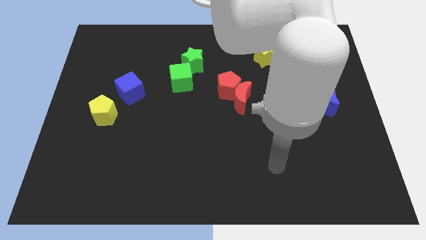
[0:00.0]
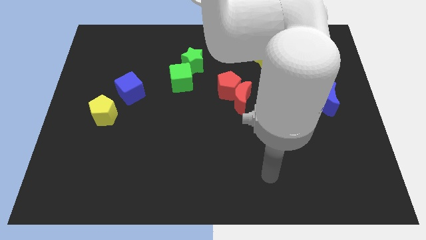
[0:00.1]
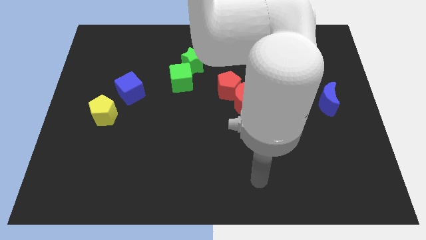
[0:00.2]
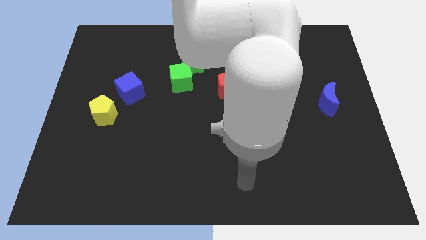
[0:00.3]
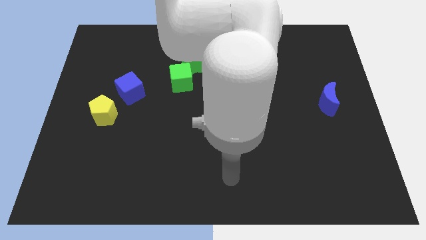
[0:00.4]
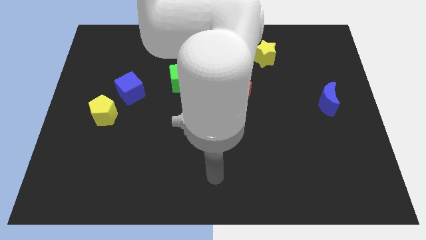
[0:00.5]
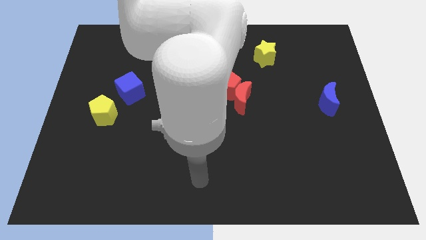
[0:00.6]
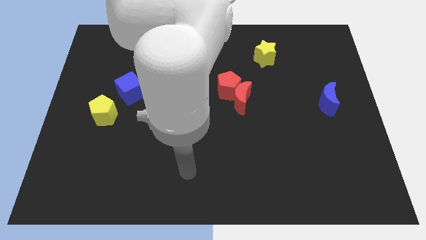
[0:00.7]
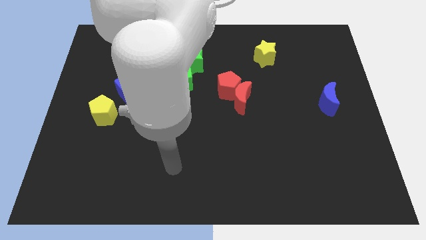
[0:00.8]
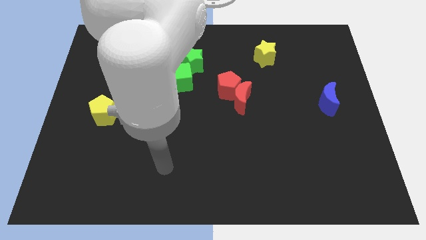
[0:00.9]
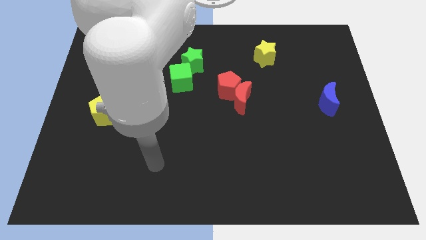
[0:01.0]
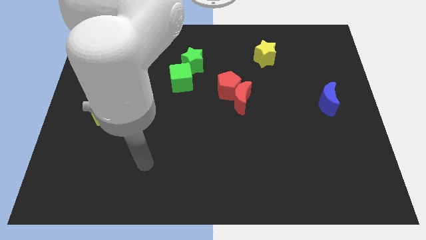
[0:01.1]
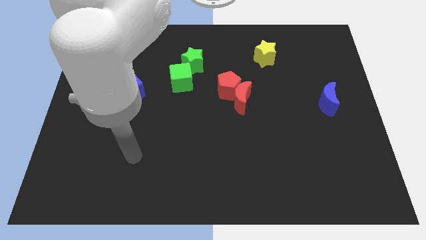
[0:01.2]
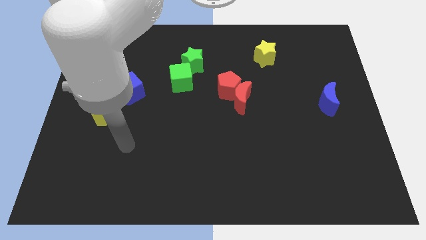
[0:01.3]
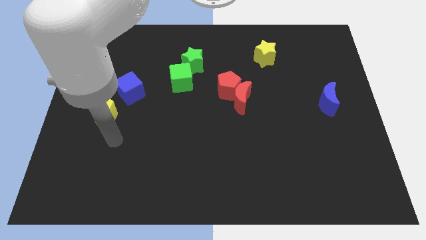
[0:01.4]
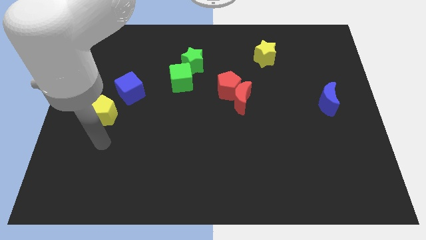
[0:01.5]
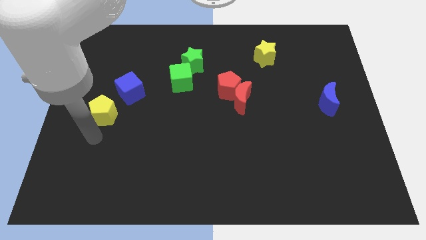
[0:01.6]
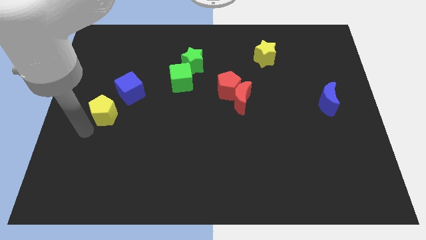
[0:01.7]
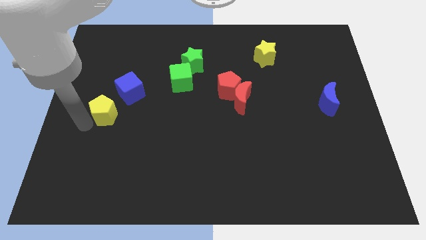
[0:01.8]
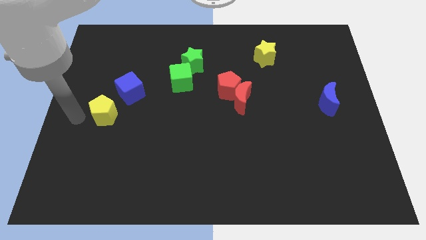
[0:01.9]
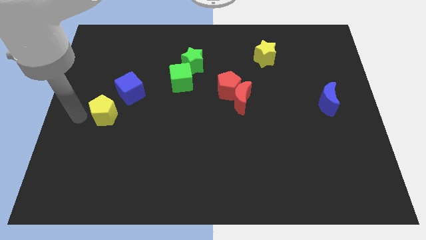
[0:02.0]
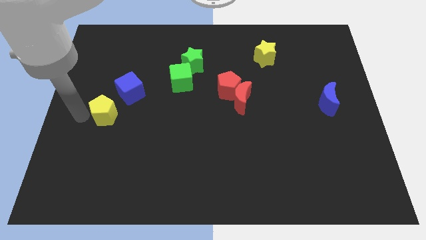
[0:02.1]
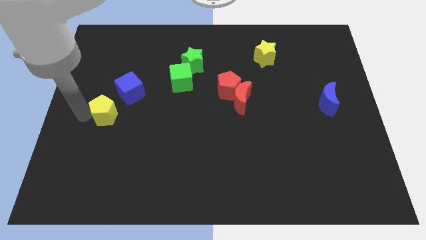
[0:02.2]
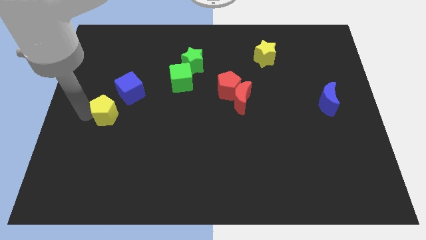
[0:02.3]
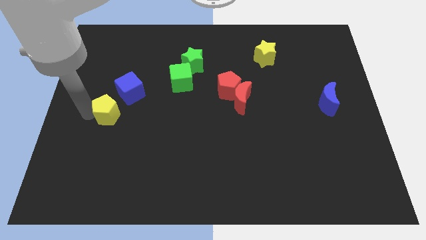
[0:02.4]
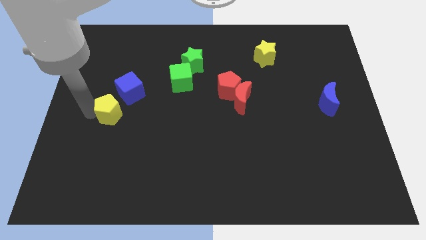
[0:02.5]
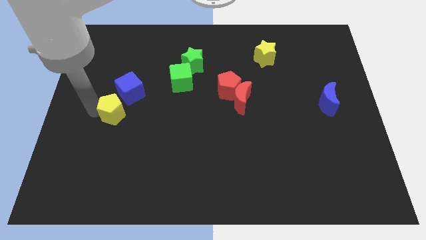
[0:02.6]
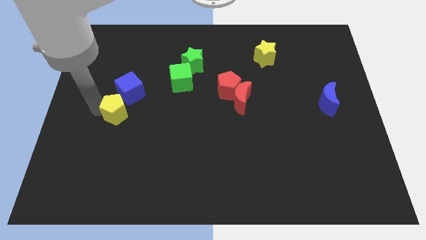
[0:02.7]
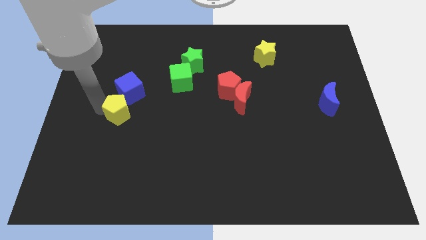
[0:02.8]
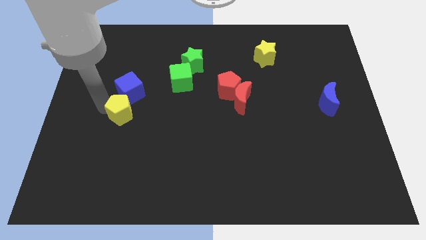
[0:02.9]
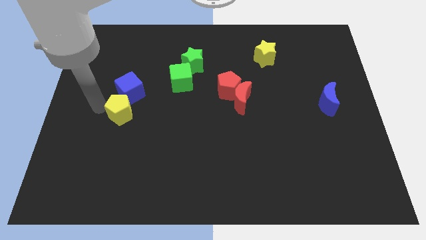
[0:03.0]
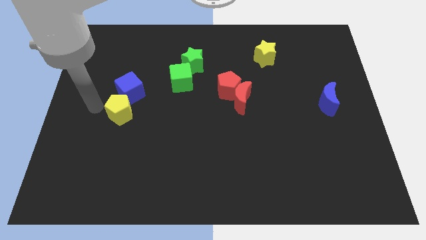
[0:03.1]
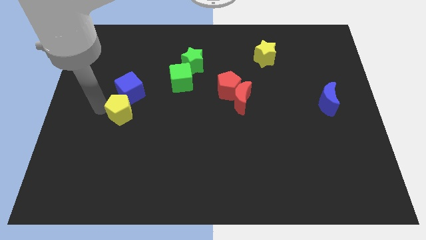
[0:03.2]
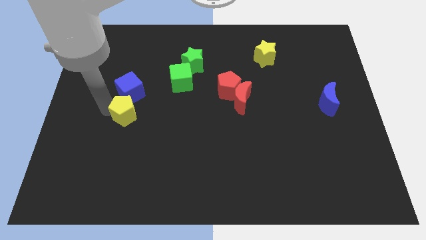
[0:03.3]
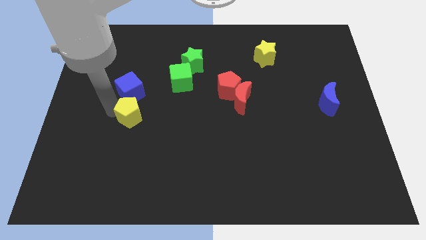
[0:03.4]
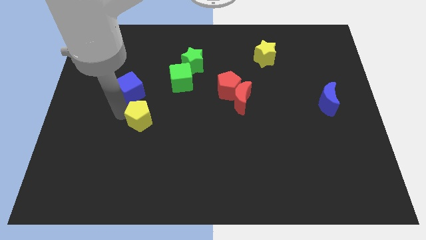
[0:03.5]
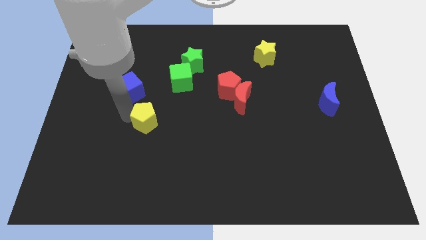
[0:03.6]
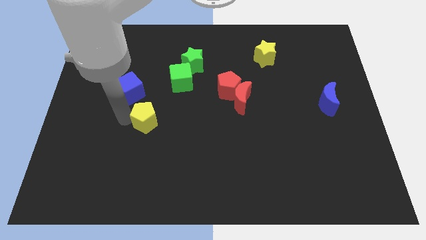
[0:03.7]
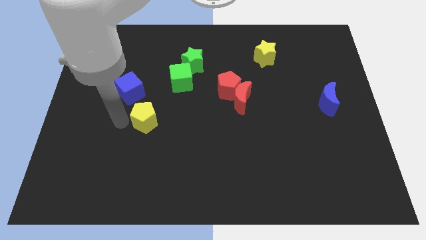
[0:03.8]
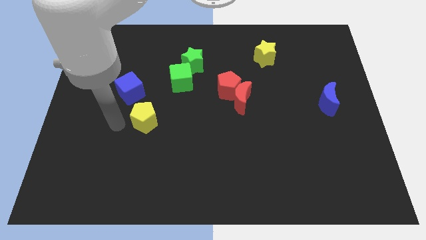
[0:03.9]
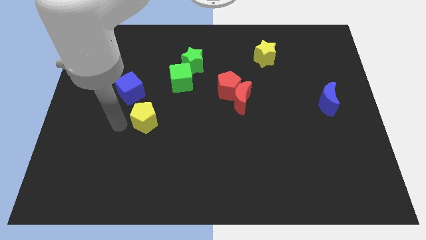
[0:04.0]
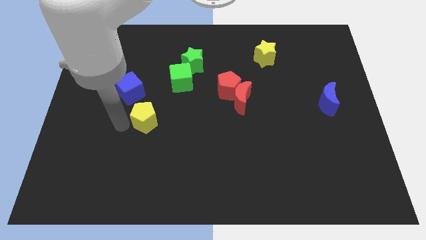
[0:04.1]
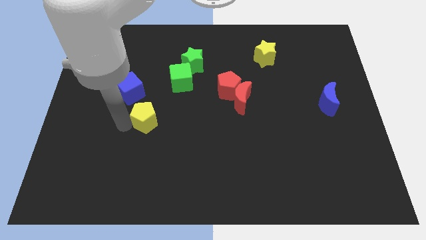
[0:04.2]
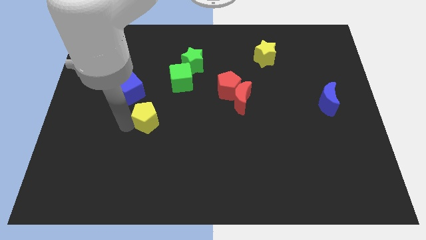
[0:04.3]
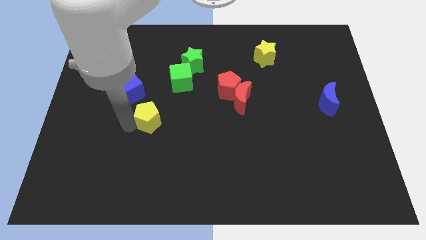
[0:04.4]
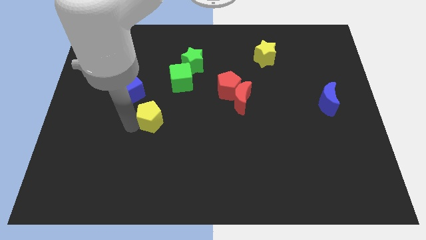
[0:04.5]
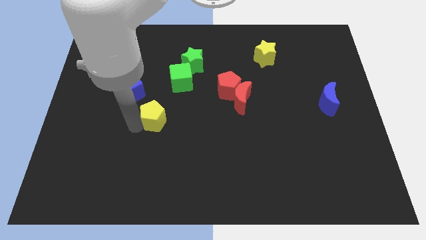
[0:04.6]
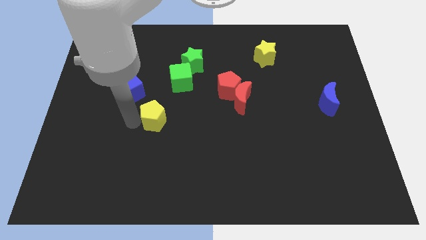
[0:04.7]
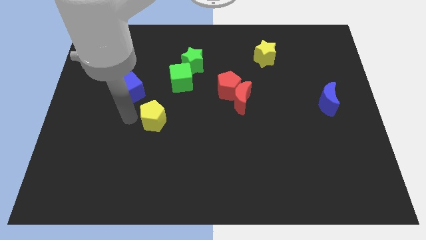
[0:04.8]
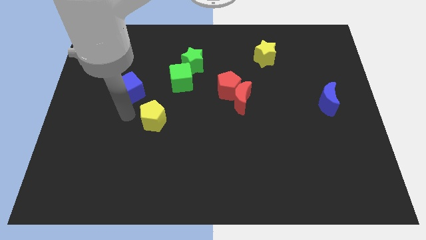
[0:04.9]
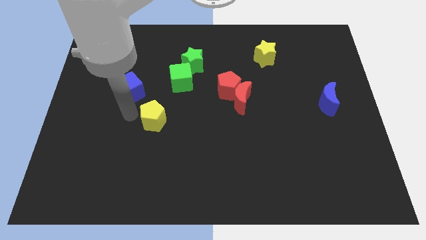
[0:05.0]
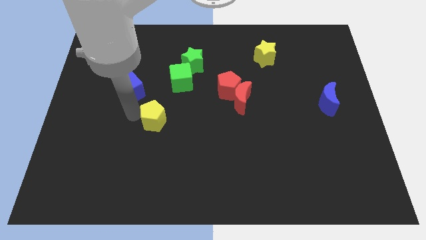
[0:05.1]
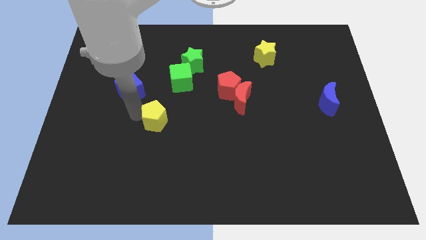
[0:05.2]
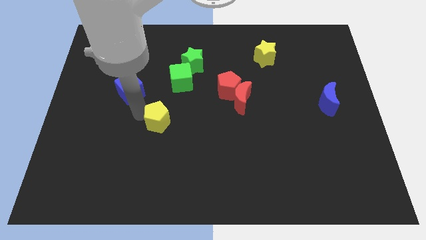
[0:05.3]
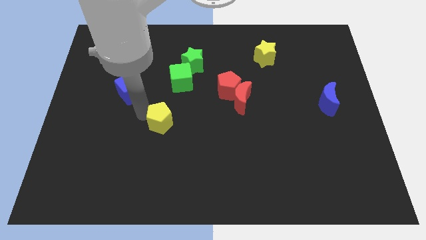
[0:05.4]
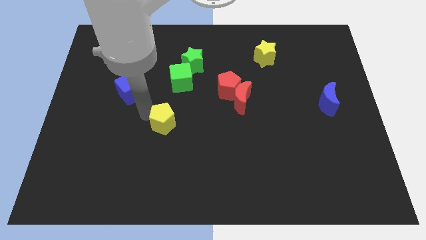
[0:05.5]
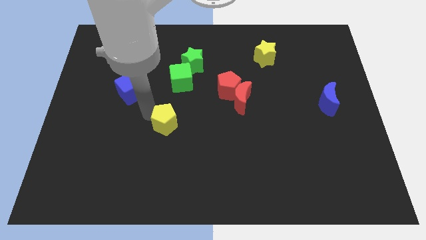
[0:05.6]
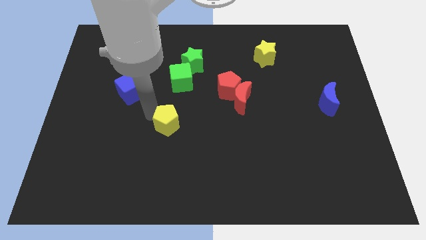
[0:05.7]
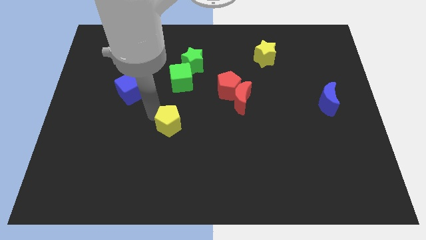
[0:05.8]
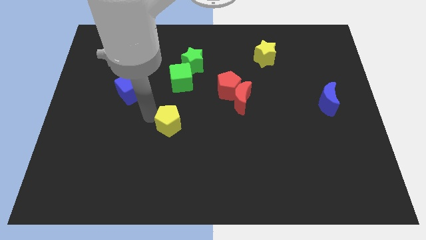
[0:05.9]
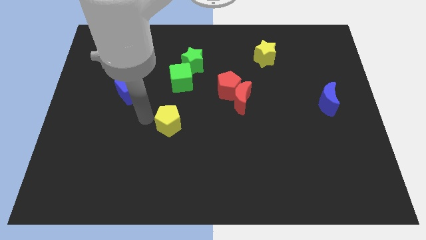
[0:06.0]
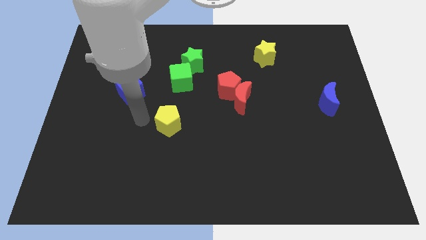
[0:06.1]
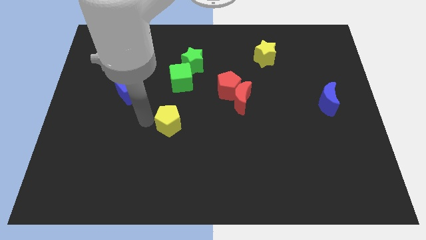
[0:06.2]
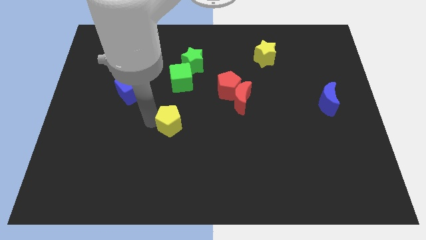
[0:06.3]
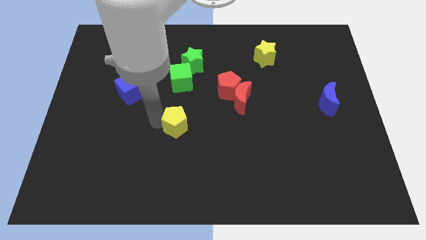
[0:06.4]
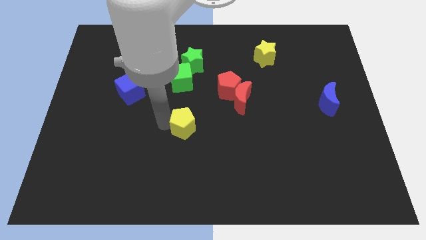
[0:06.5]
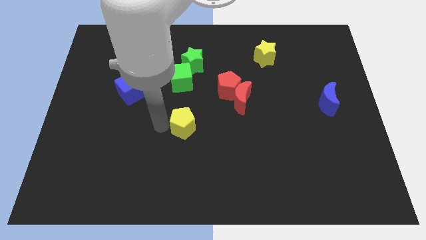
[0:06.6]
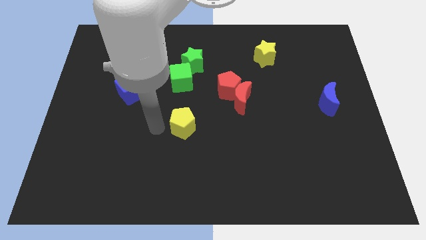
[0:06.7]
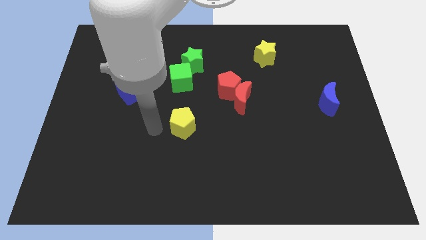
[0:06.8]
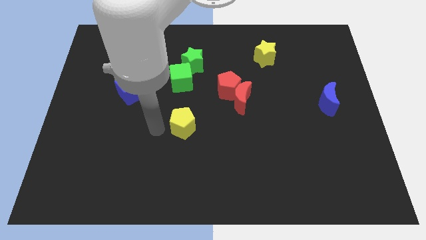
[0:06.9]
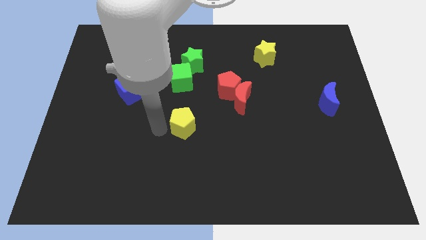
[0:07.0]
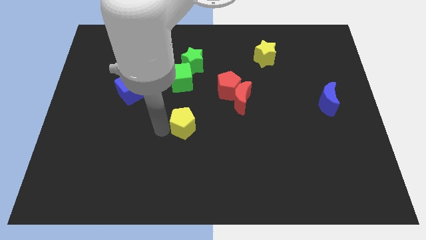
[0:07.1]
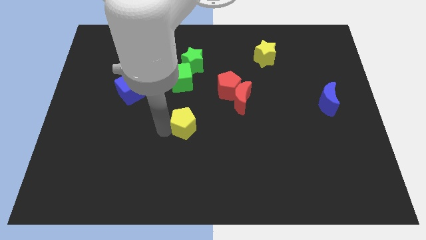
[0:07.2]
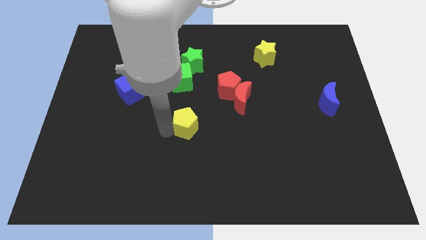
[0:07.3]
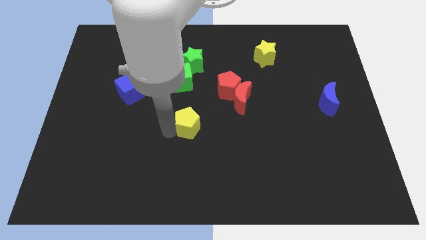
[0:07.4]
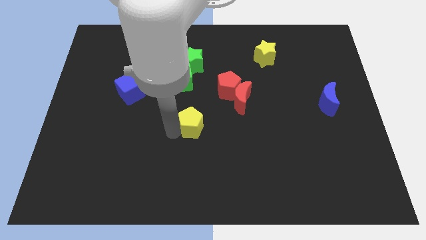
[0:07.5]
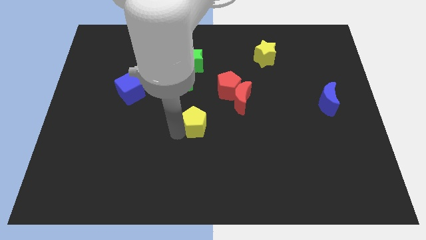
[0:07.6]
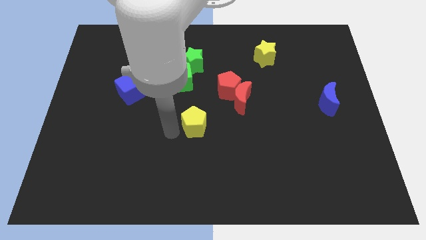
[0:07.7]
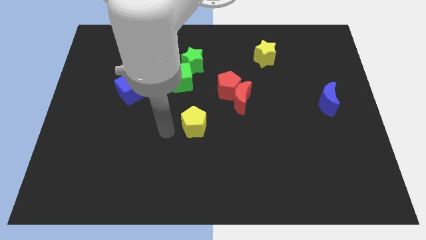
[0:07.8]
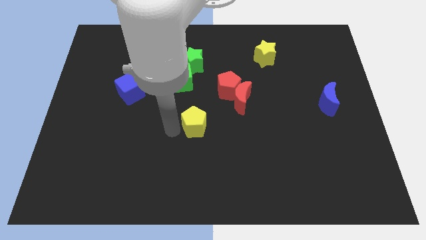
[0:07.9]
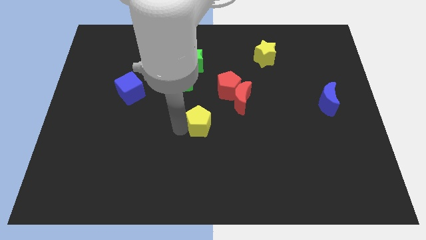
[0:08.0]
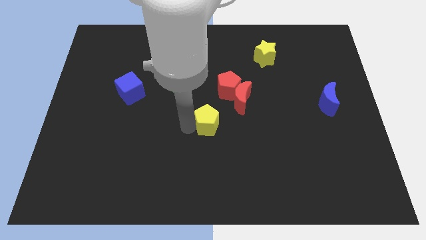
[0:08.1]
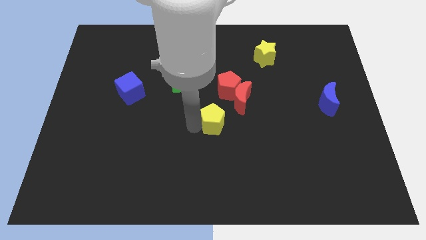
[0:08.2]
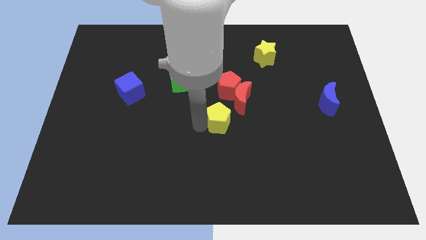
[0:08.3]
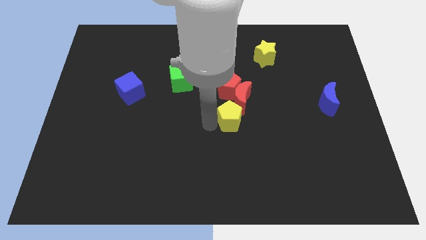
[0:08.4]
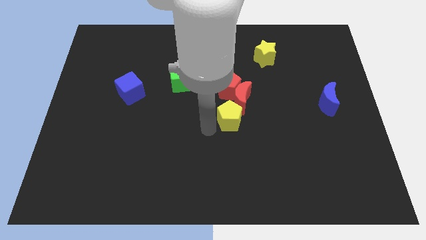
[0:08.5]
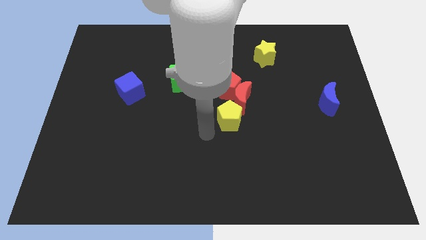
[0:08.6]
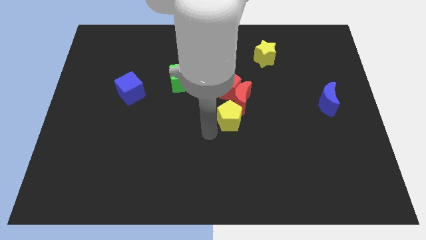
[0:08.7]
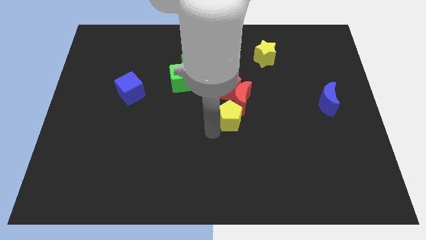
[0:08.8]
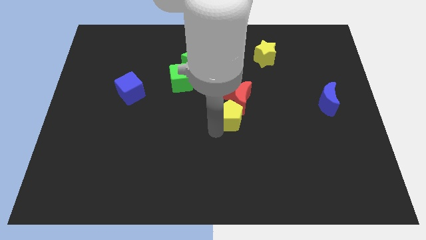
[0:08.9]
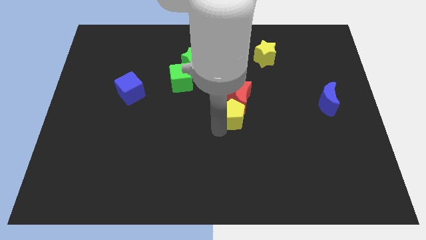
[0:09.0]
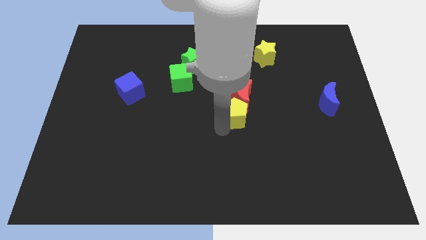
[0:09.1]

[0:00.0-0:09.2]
move the yellow pentagon to the bottom right side of the red pentagon
